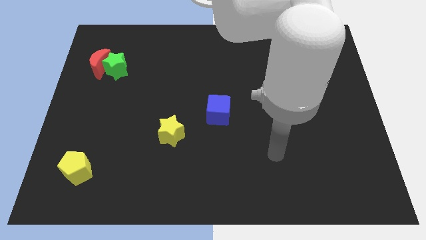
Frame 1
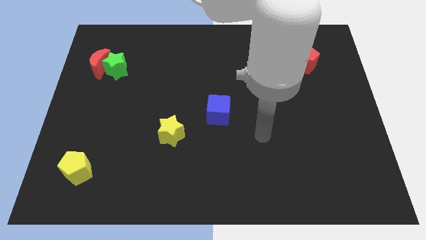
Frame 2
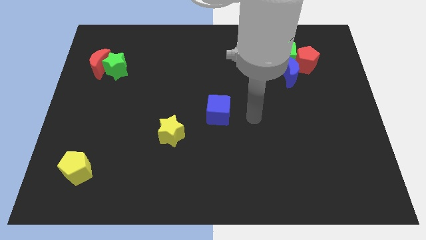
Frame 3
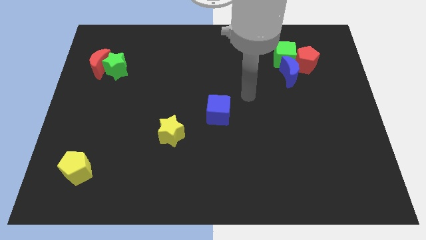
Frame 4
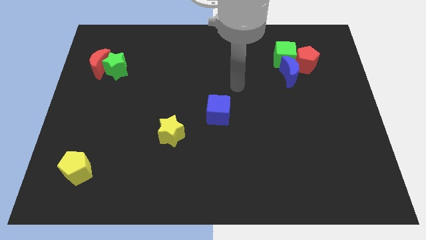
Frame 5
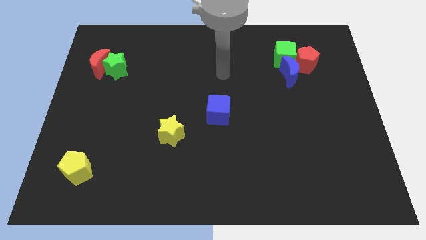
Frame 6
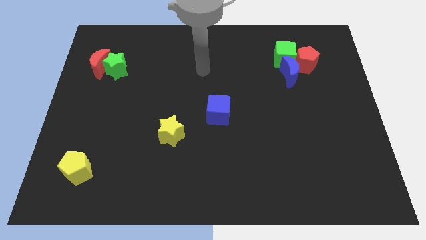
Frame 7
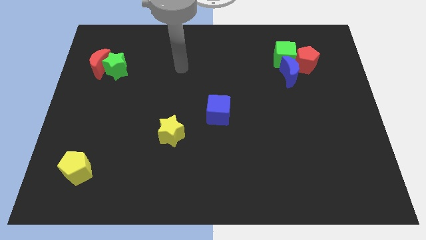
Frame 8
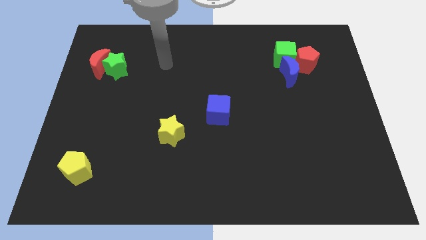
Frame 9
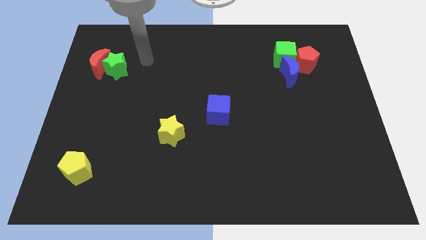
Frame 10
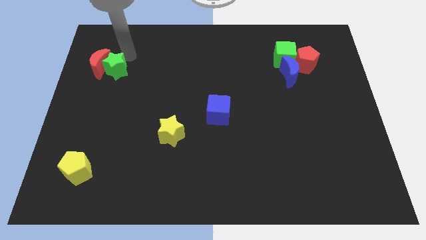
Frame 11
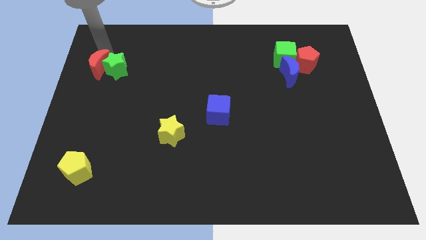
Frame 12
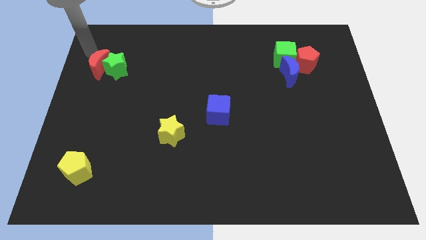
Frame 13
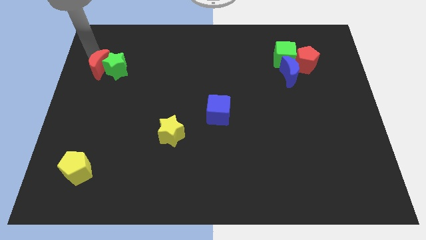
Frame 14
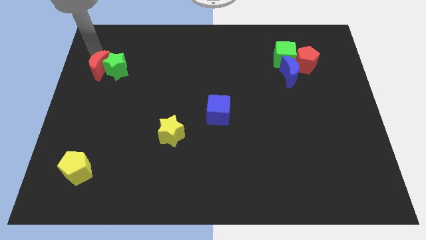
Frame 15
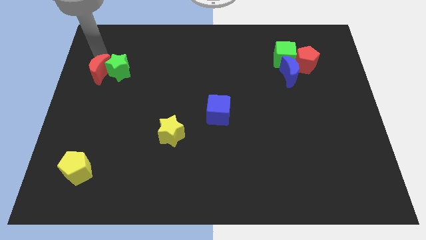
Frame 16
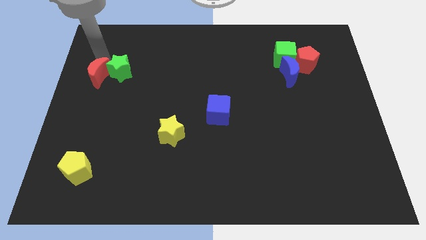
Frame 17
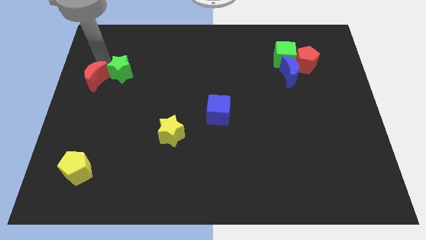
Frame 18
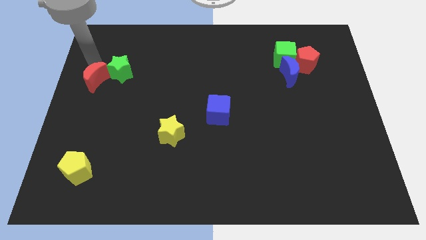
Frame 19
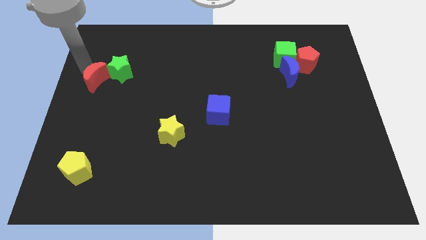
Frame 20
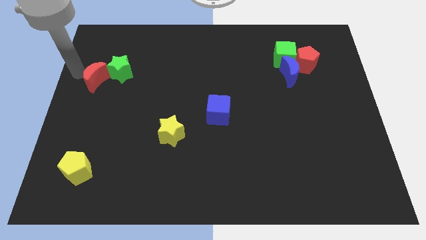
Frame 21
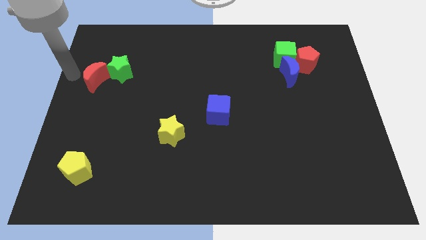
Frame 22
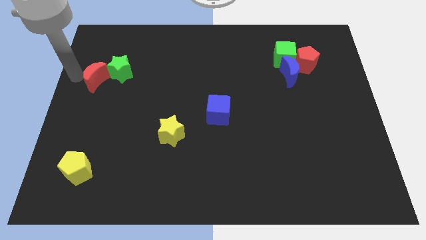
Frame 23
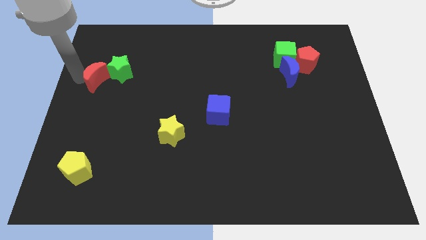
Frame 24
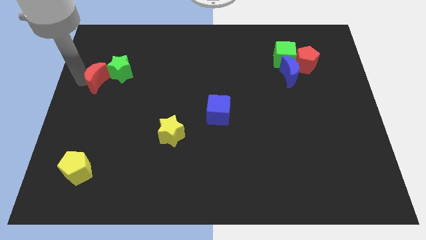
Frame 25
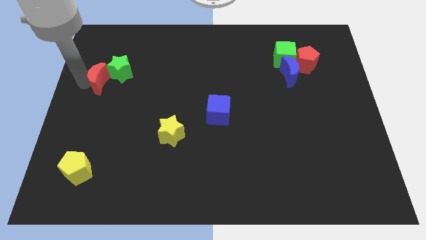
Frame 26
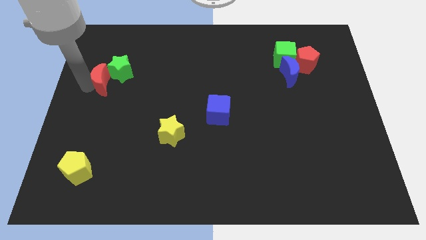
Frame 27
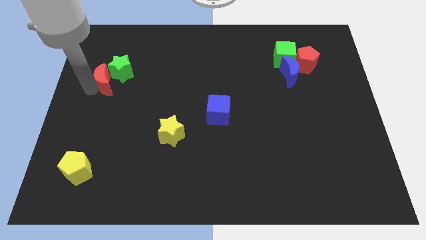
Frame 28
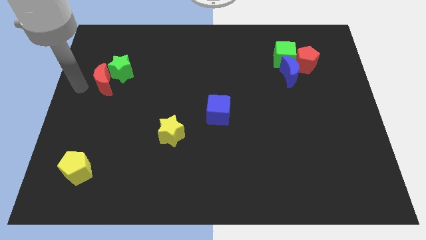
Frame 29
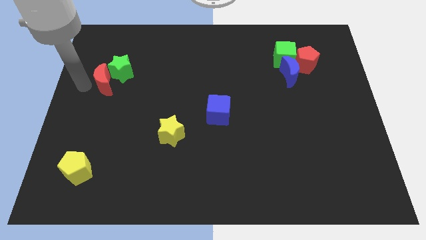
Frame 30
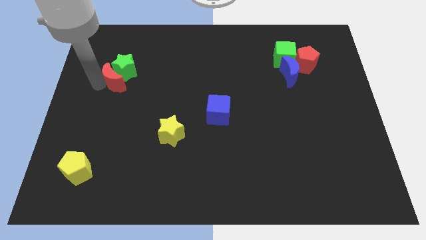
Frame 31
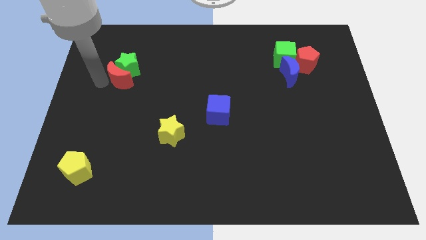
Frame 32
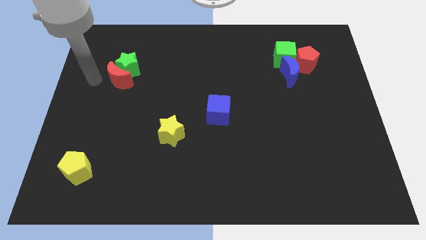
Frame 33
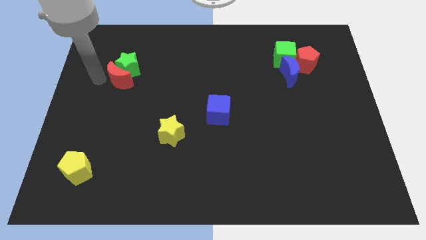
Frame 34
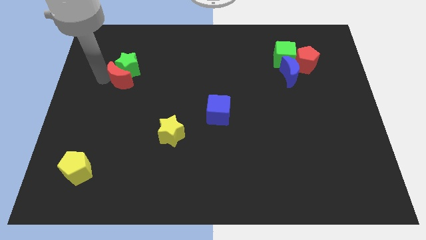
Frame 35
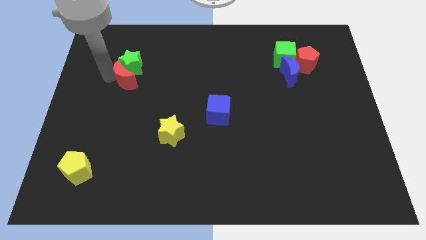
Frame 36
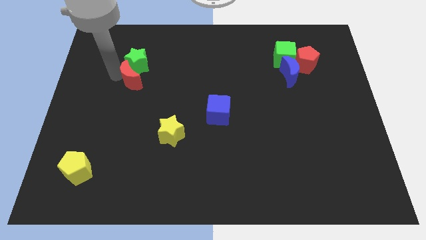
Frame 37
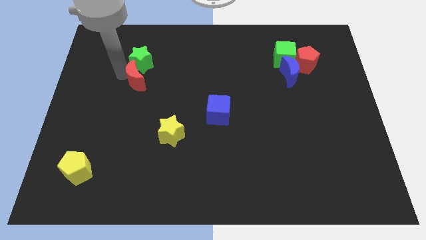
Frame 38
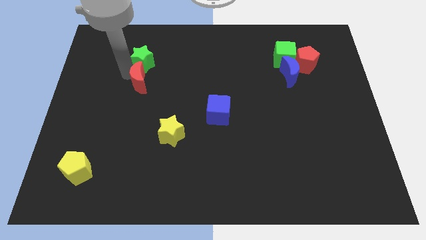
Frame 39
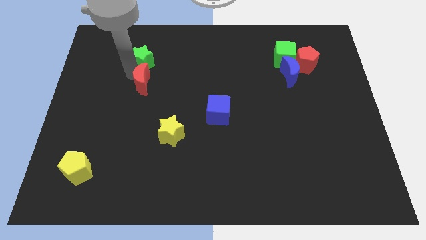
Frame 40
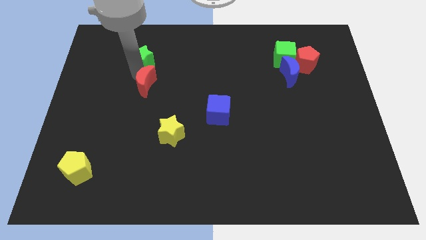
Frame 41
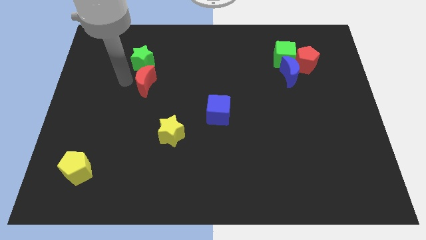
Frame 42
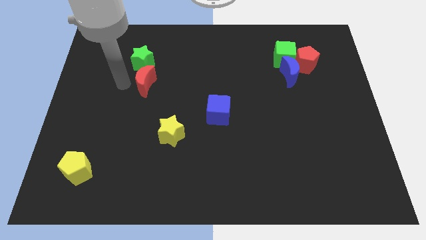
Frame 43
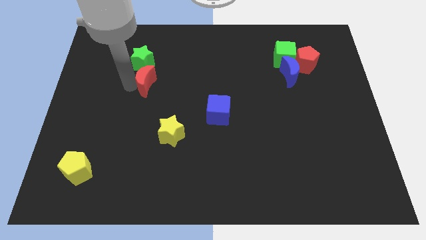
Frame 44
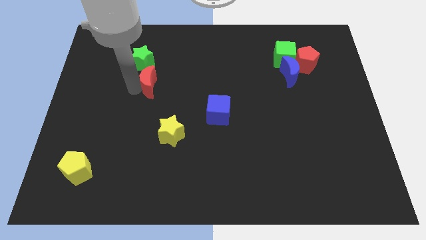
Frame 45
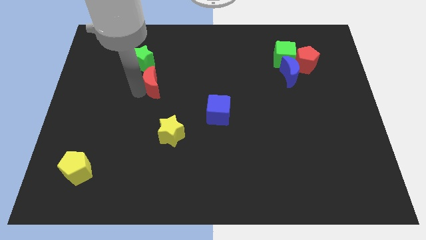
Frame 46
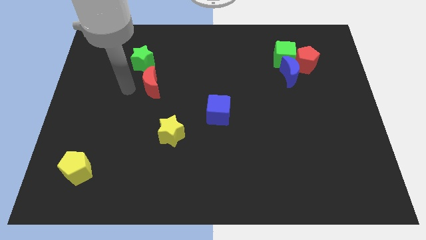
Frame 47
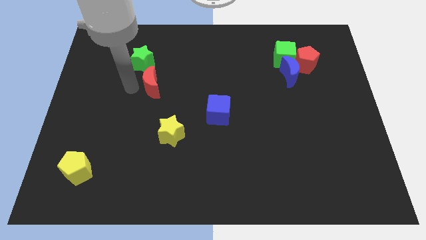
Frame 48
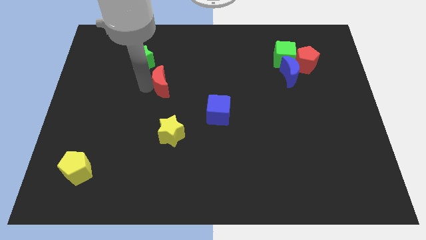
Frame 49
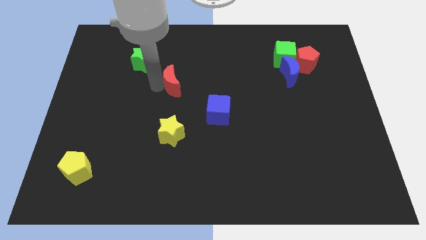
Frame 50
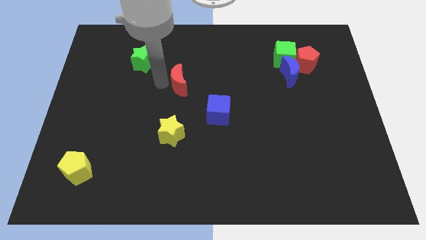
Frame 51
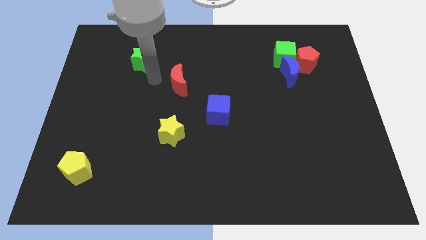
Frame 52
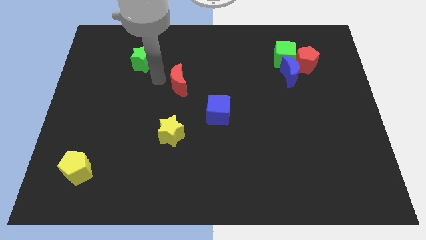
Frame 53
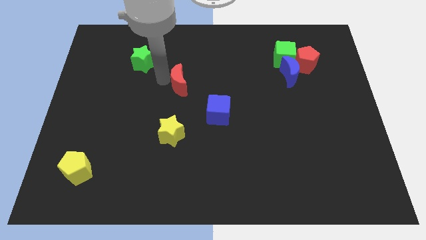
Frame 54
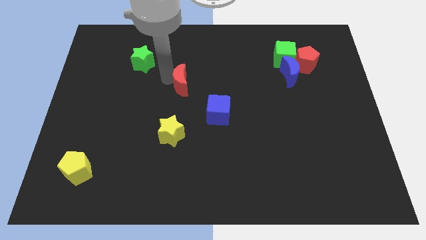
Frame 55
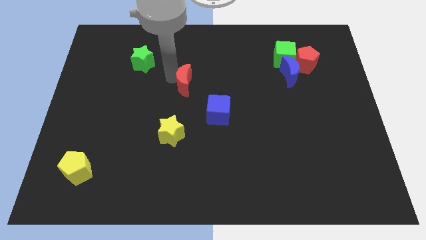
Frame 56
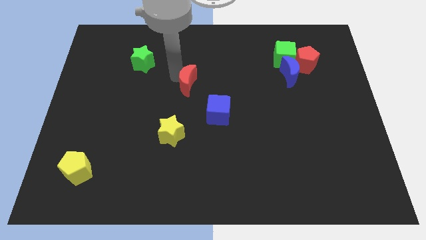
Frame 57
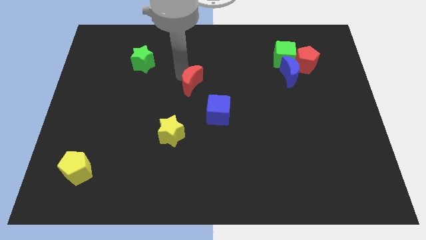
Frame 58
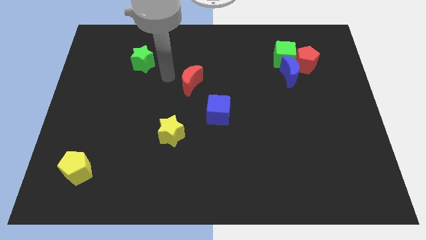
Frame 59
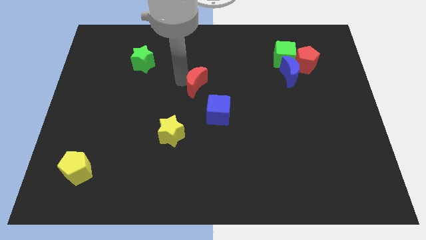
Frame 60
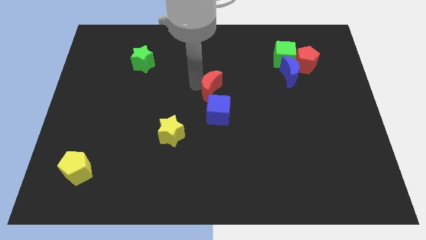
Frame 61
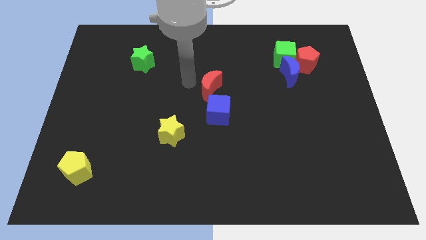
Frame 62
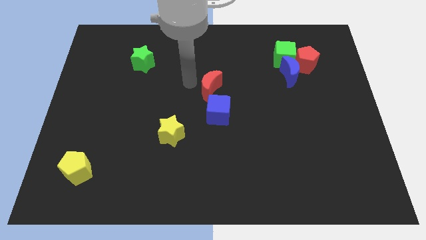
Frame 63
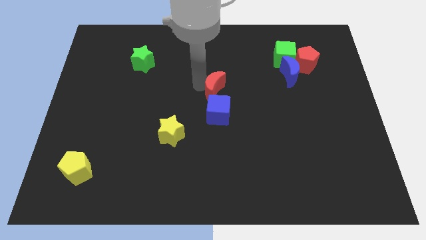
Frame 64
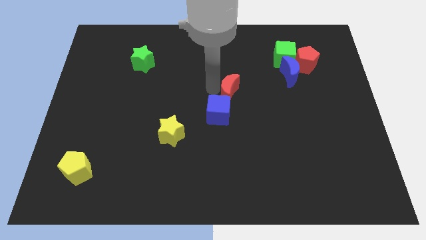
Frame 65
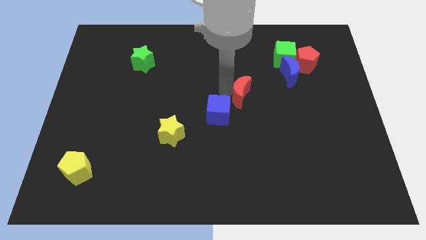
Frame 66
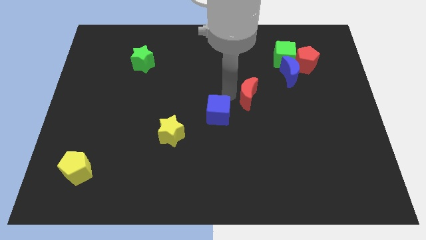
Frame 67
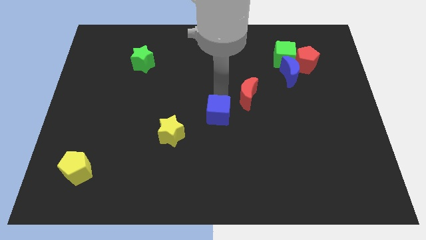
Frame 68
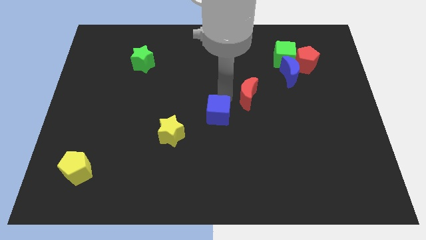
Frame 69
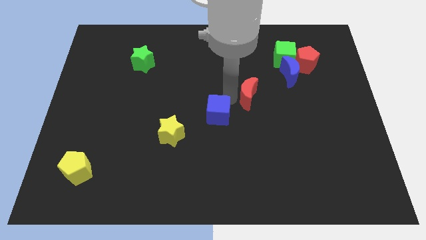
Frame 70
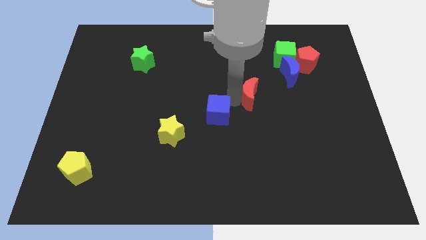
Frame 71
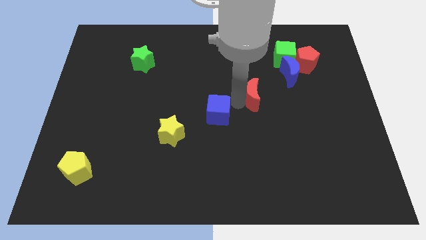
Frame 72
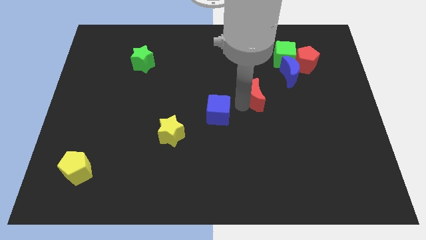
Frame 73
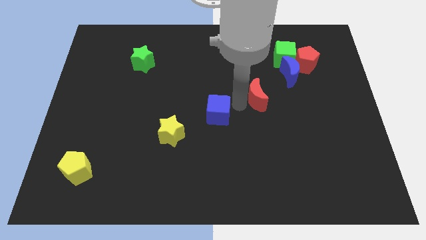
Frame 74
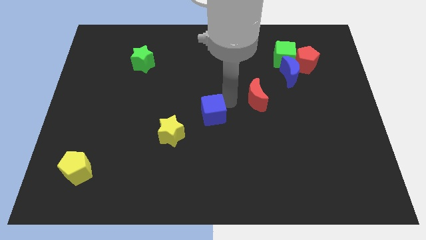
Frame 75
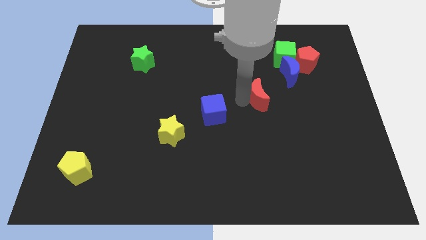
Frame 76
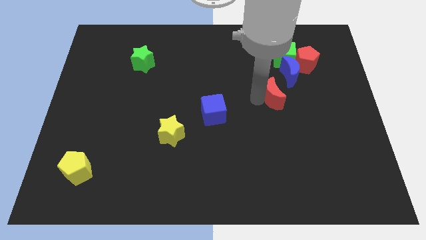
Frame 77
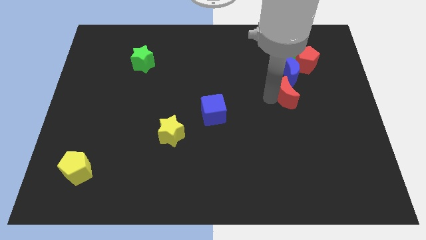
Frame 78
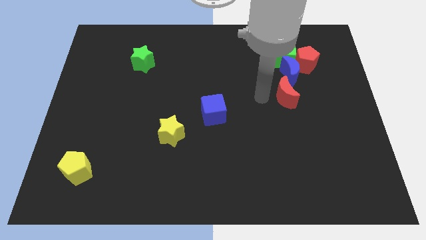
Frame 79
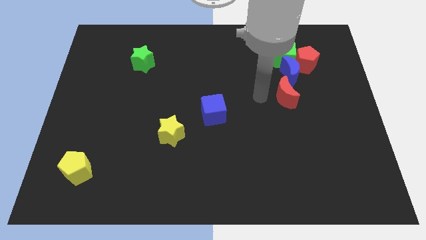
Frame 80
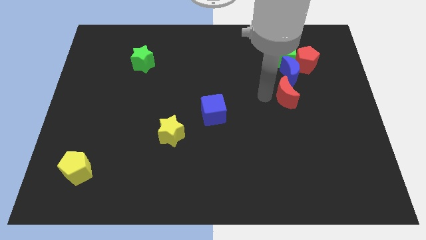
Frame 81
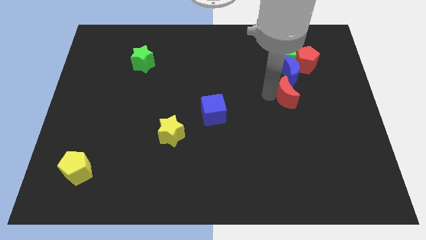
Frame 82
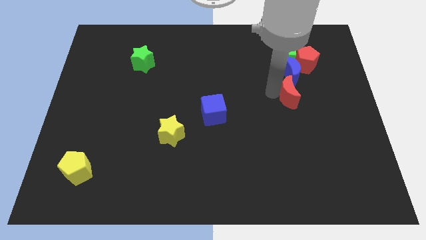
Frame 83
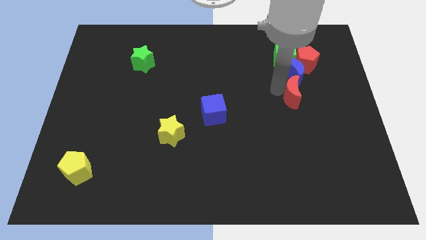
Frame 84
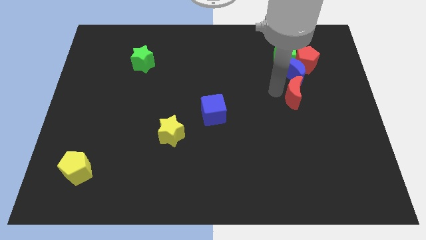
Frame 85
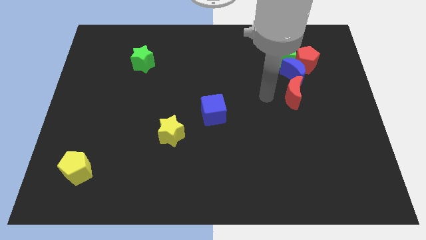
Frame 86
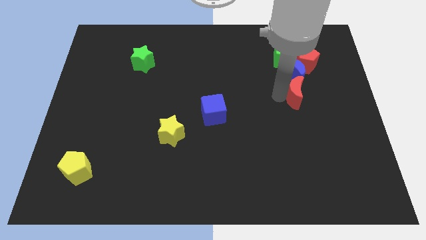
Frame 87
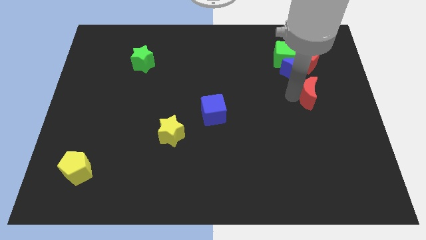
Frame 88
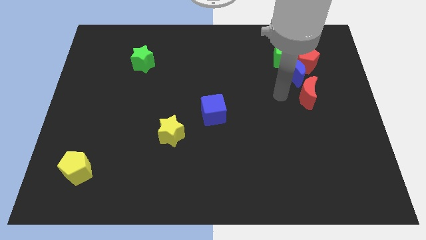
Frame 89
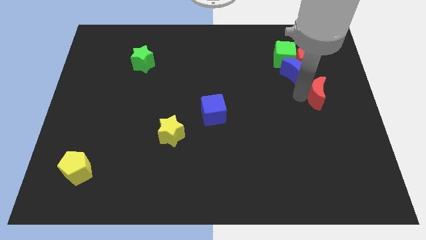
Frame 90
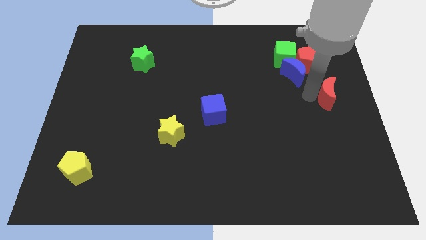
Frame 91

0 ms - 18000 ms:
move the red moon to the right side of the board
